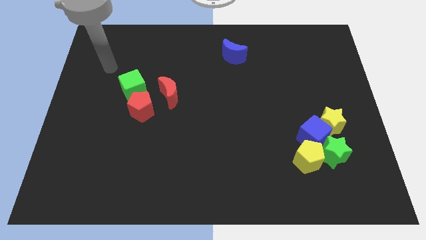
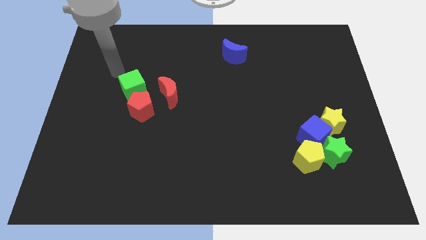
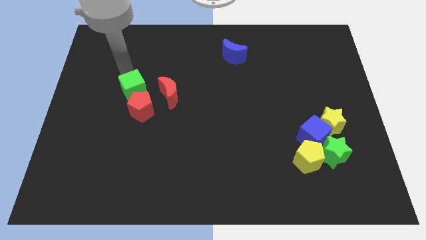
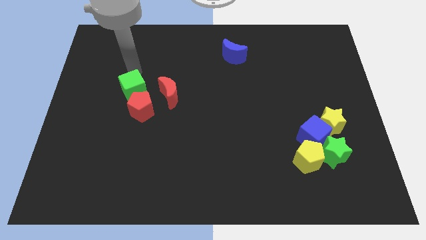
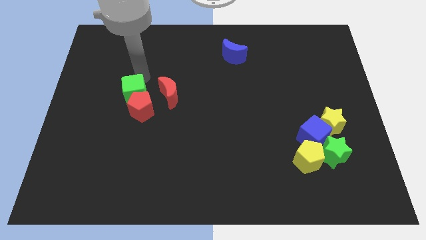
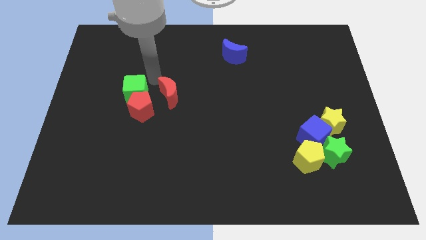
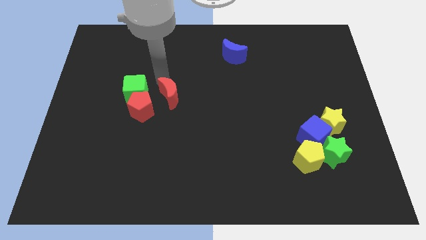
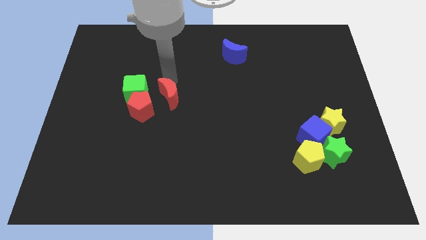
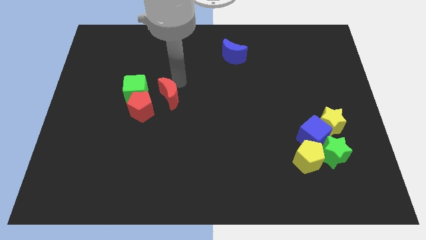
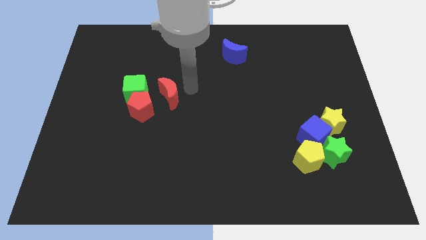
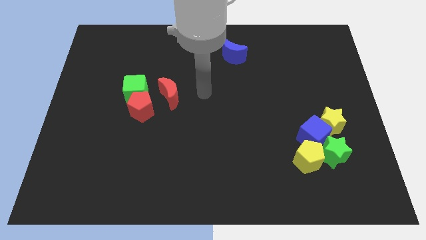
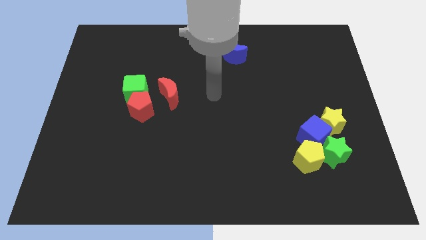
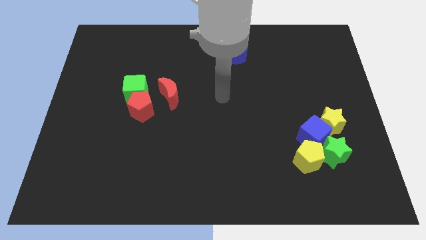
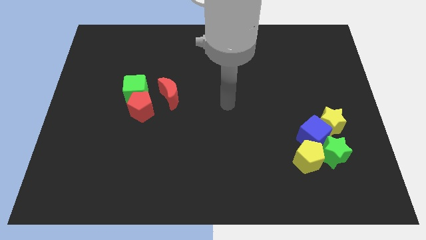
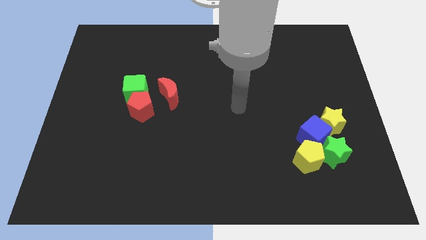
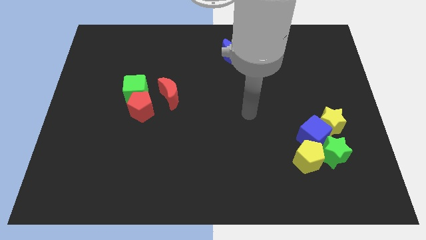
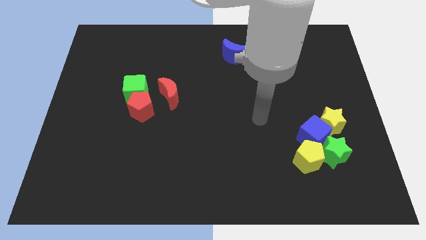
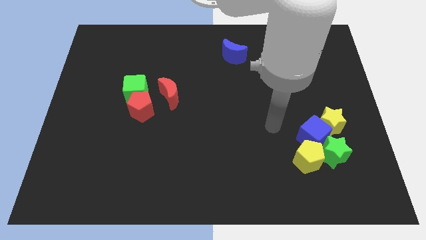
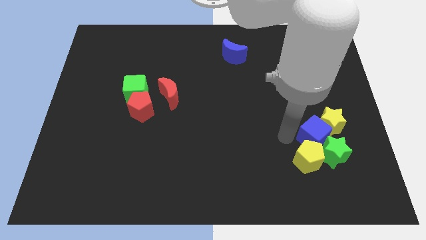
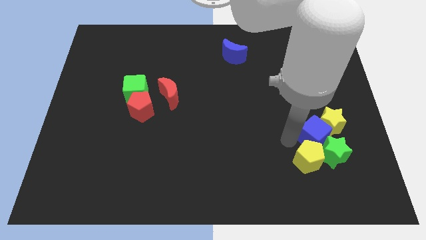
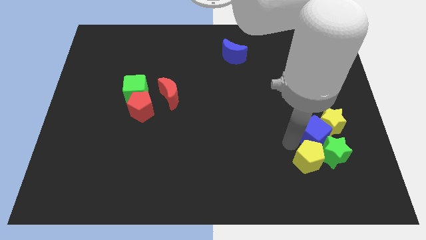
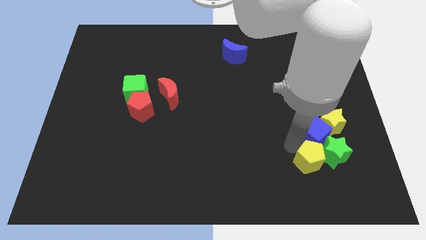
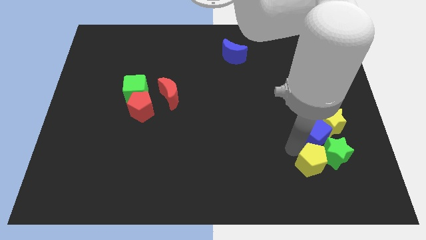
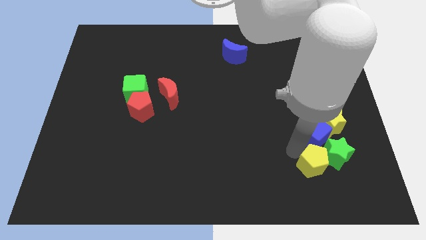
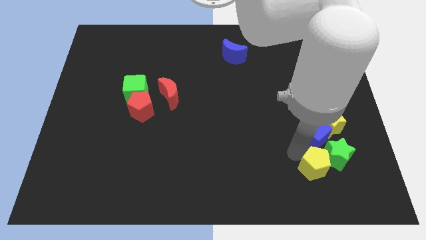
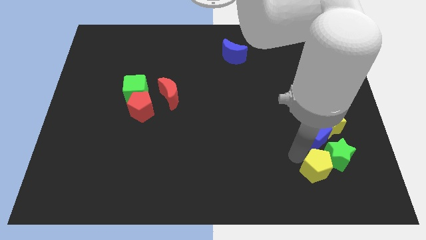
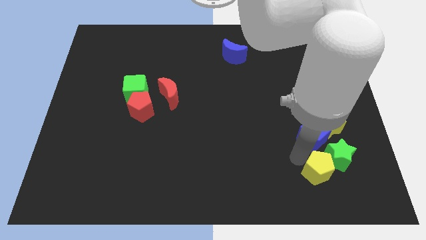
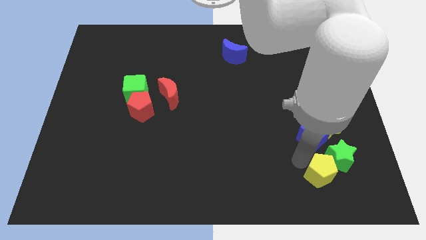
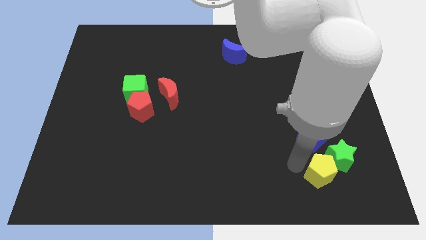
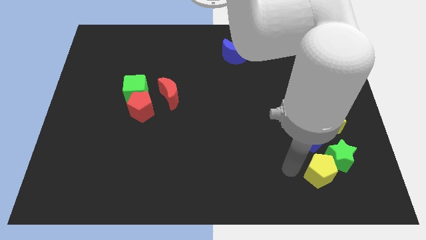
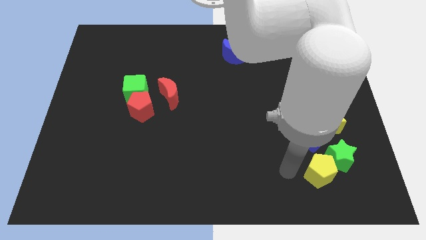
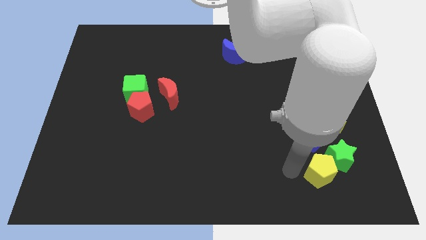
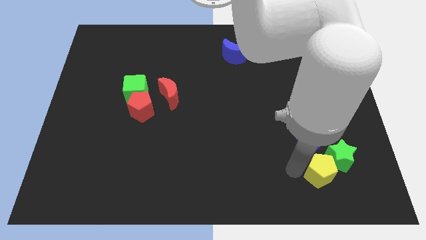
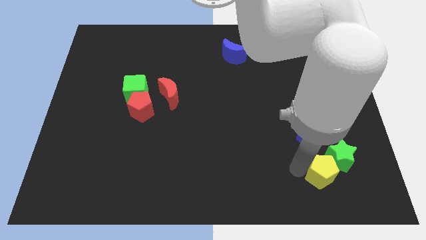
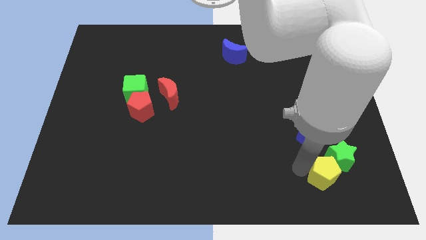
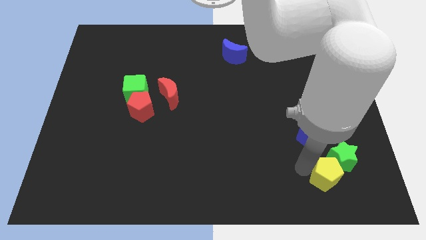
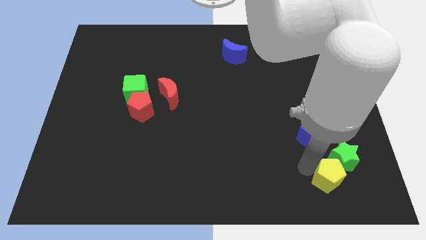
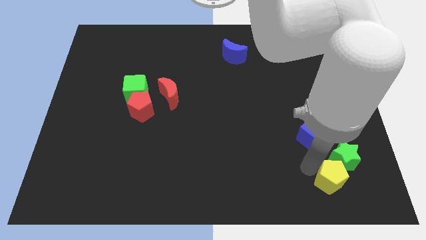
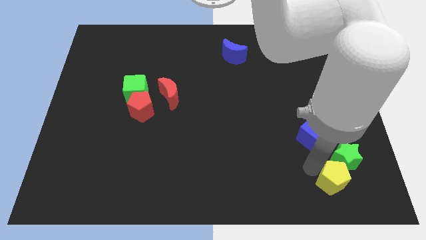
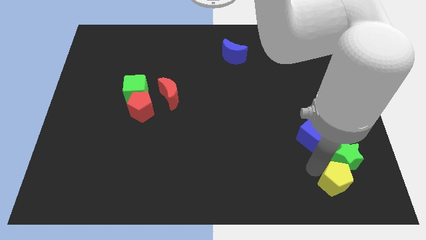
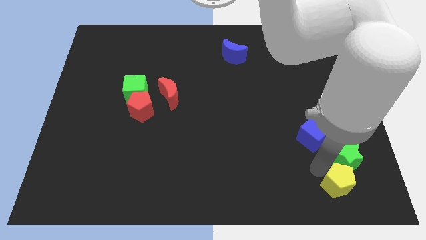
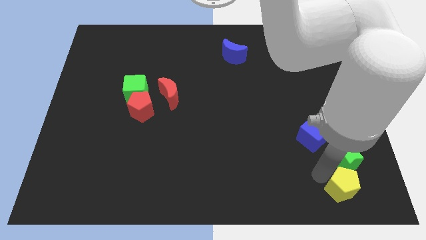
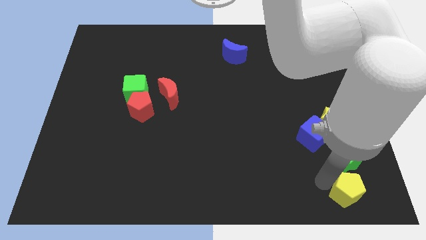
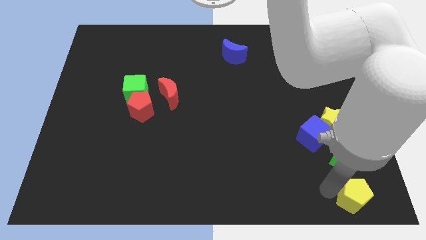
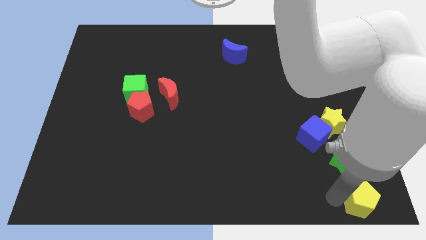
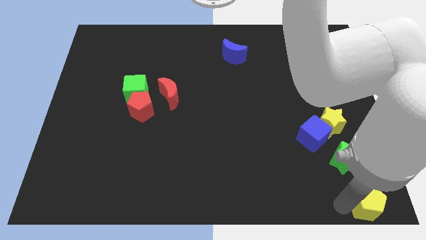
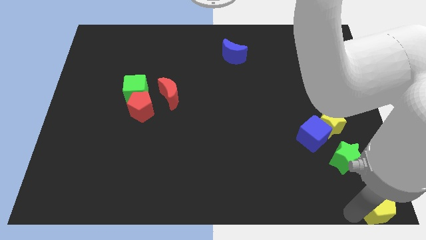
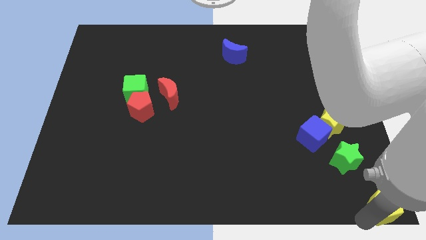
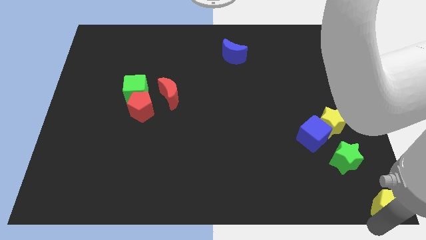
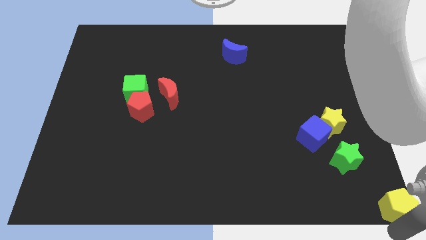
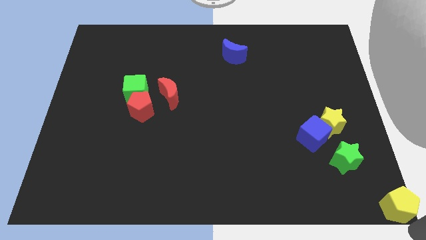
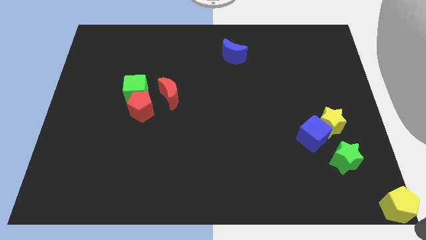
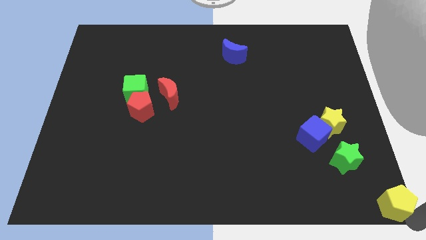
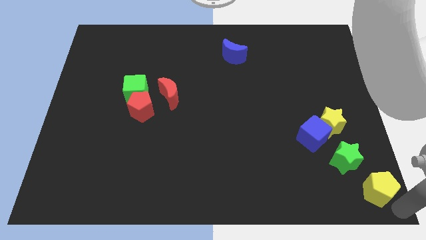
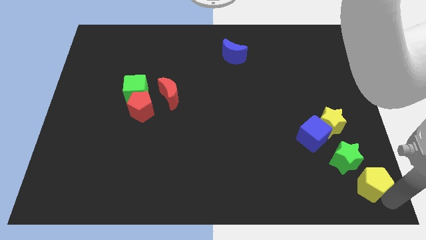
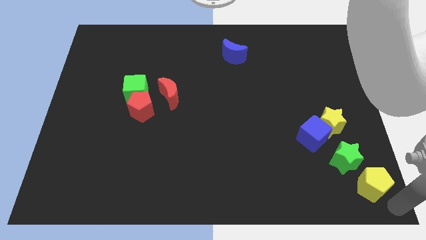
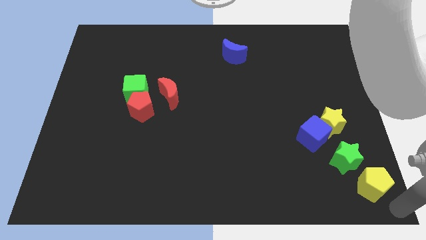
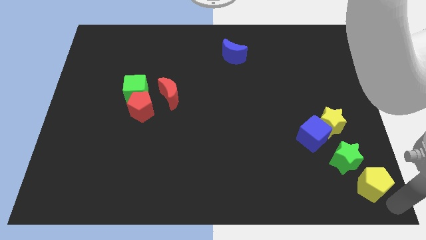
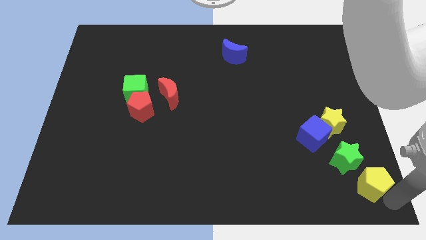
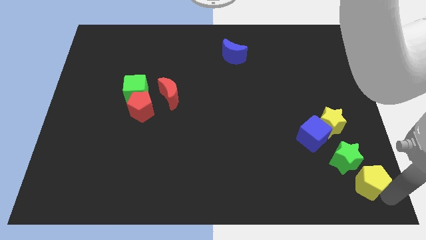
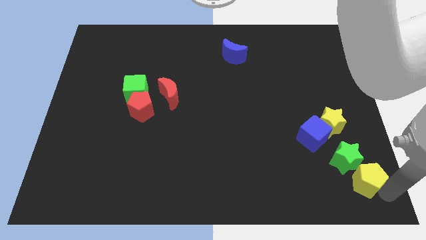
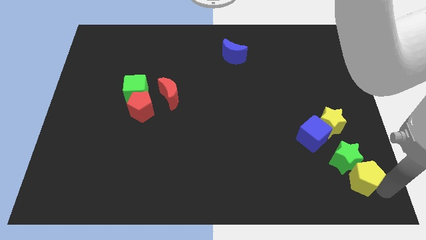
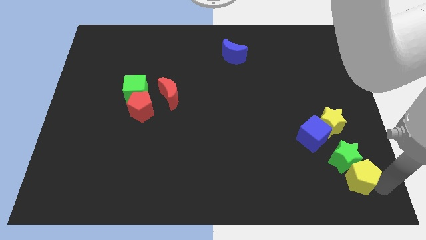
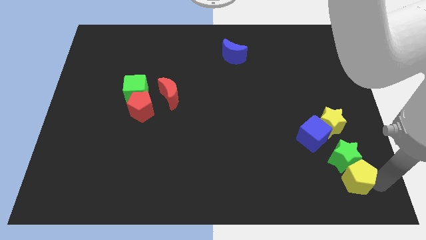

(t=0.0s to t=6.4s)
put the yellow pentagon diagonally down and to the right of the blue cube
